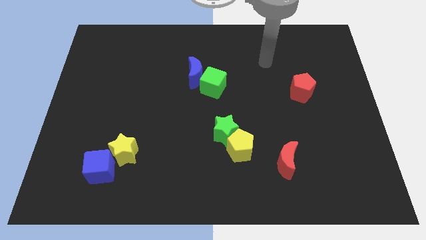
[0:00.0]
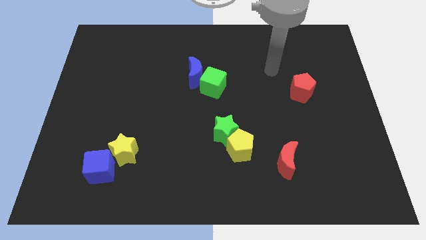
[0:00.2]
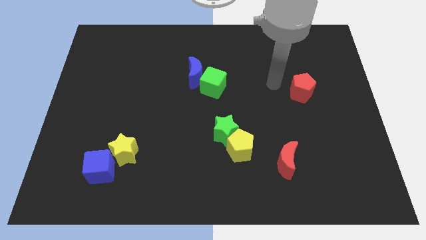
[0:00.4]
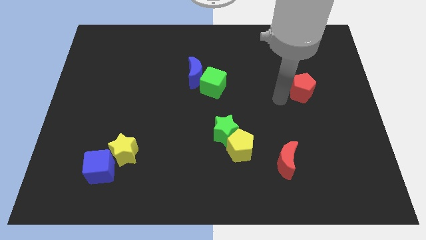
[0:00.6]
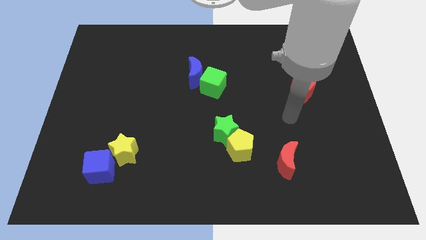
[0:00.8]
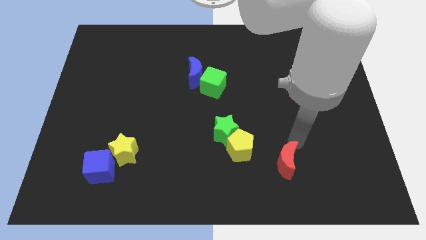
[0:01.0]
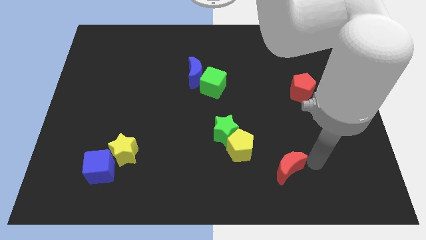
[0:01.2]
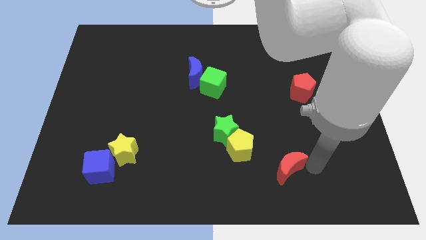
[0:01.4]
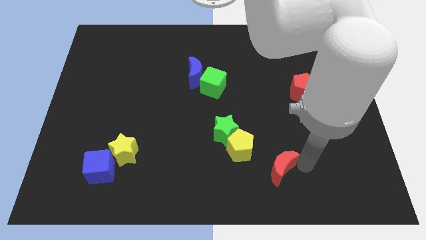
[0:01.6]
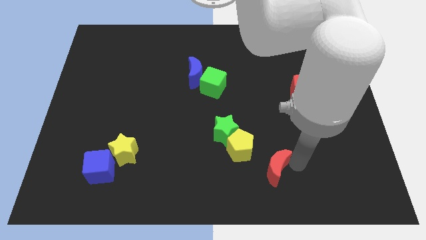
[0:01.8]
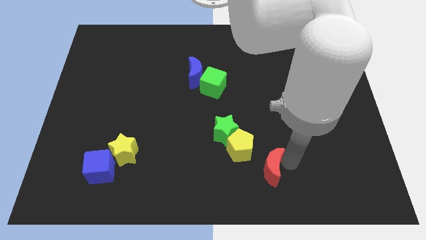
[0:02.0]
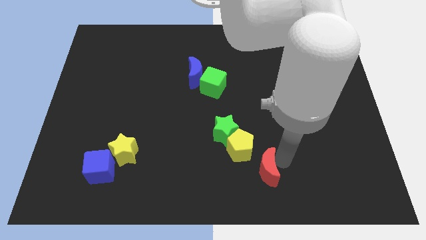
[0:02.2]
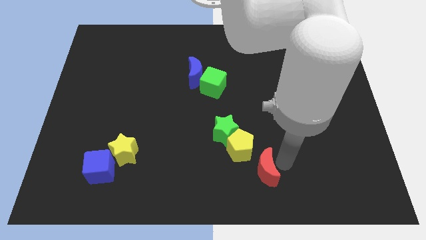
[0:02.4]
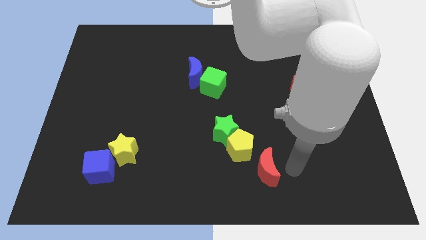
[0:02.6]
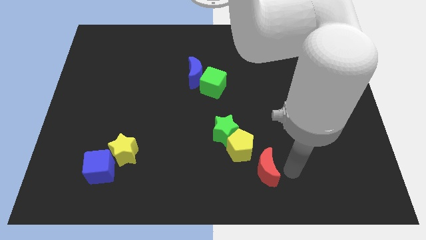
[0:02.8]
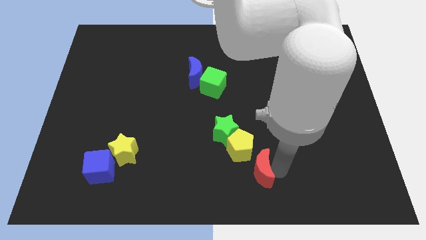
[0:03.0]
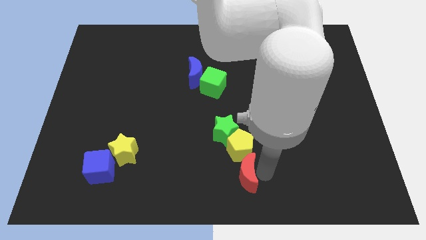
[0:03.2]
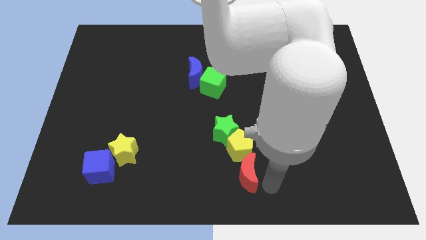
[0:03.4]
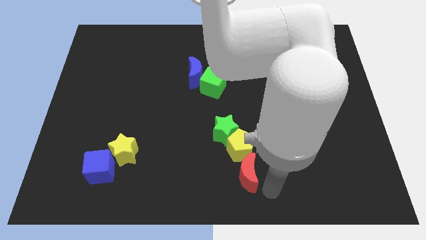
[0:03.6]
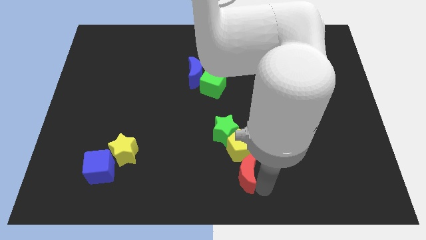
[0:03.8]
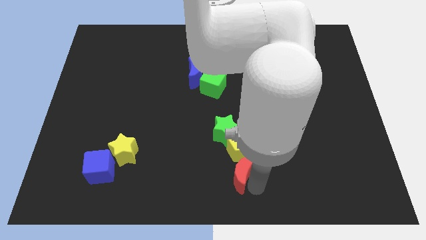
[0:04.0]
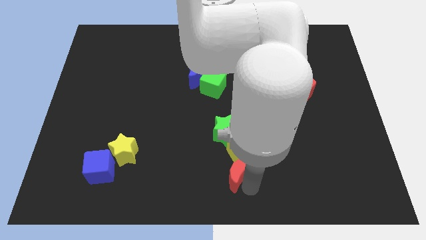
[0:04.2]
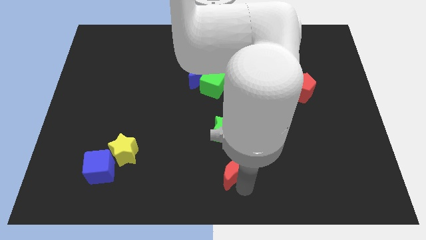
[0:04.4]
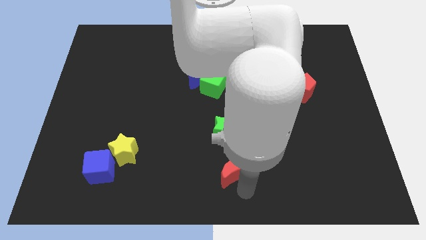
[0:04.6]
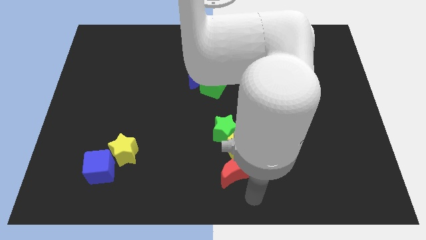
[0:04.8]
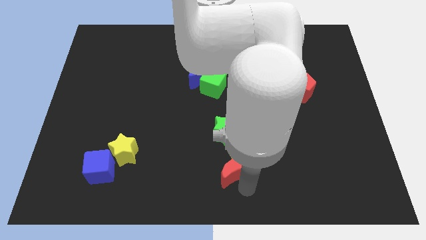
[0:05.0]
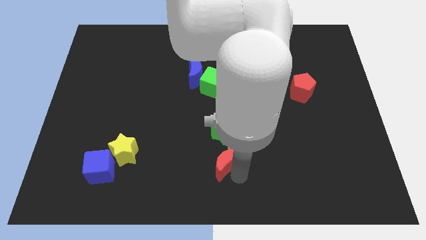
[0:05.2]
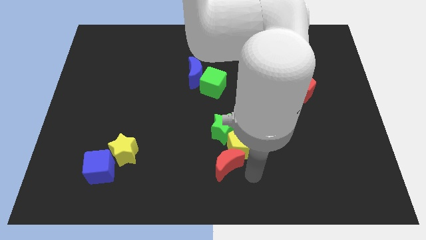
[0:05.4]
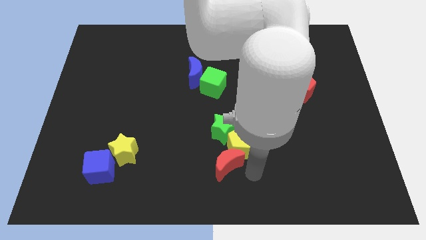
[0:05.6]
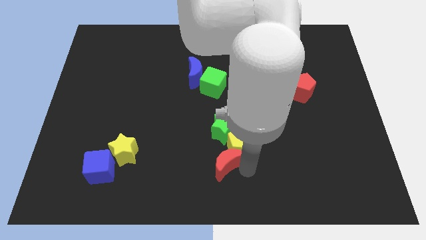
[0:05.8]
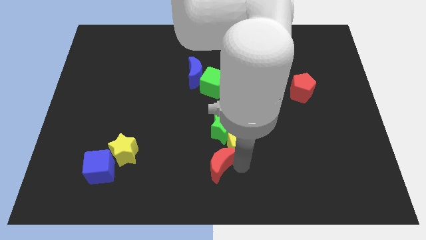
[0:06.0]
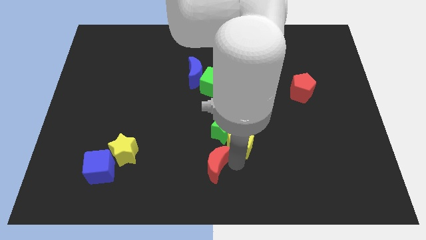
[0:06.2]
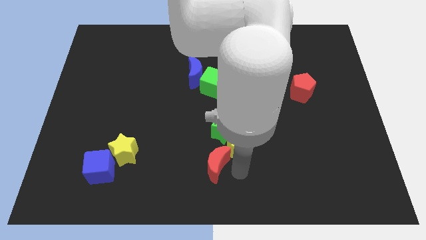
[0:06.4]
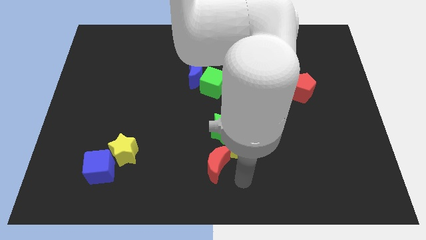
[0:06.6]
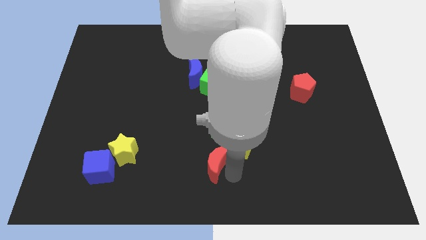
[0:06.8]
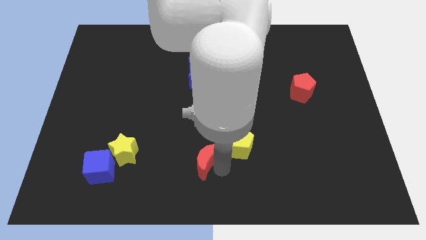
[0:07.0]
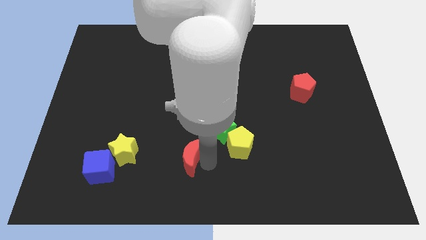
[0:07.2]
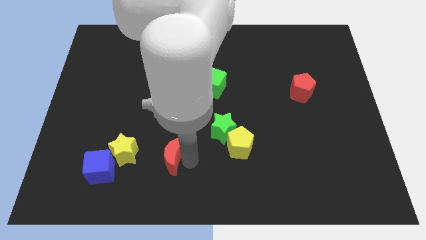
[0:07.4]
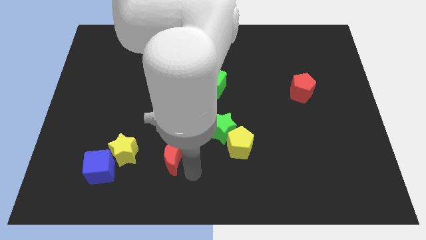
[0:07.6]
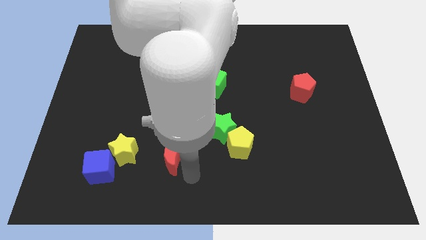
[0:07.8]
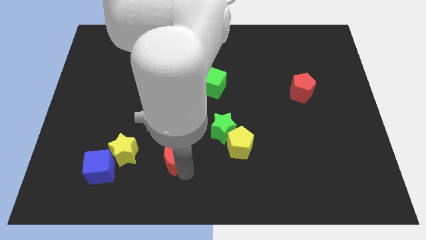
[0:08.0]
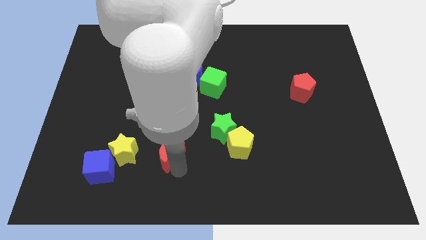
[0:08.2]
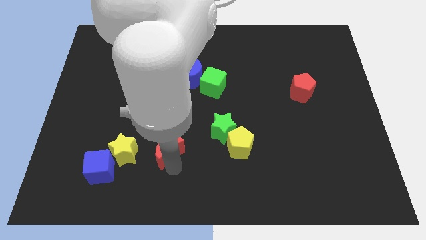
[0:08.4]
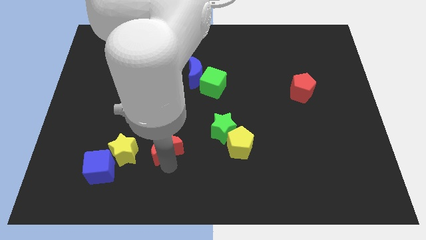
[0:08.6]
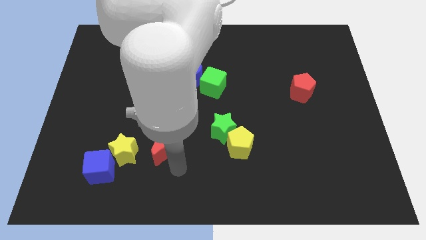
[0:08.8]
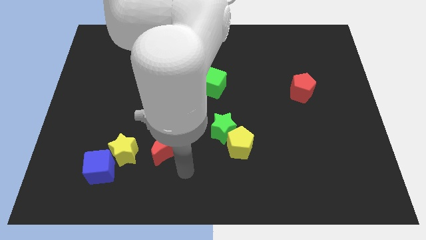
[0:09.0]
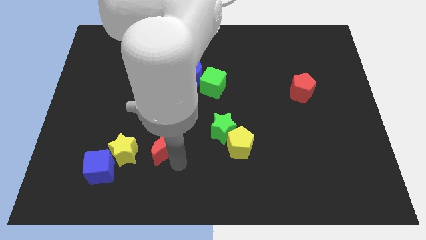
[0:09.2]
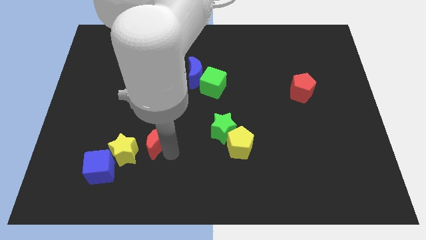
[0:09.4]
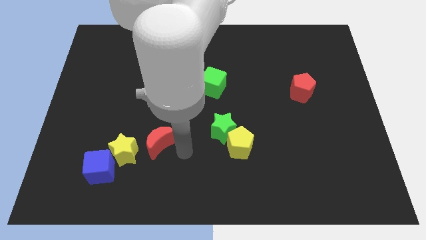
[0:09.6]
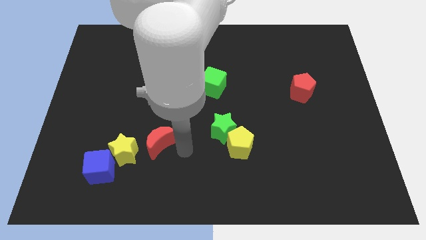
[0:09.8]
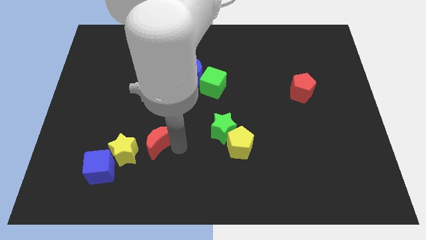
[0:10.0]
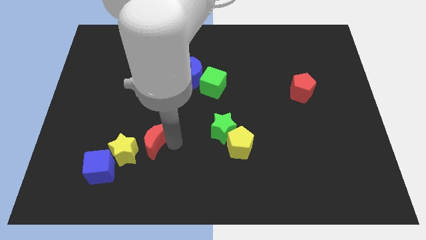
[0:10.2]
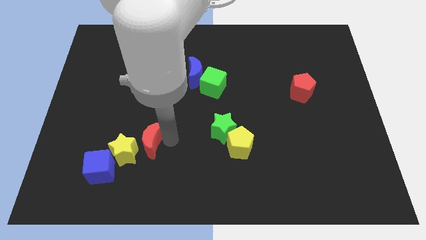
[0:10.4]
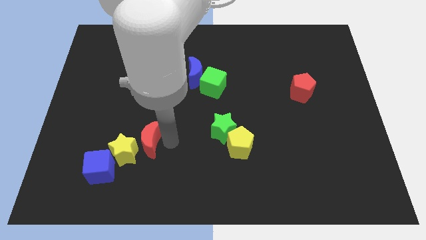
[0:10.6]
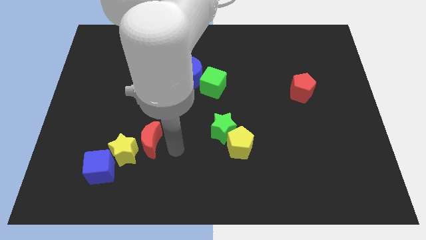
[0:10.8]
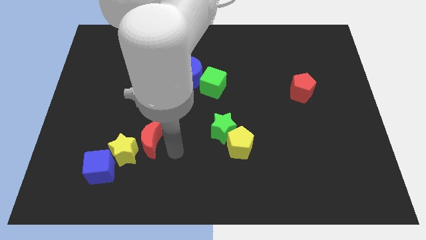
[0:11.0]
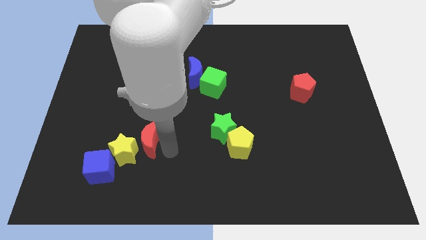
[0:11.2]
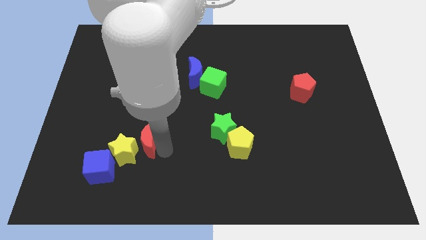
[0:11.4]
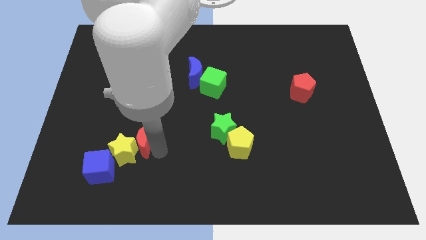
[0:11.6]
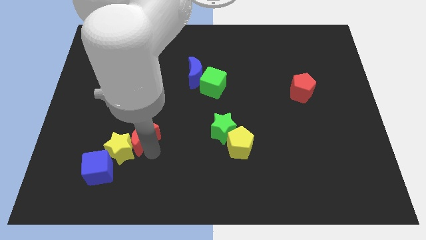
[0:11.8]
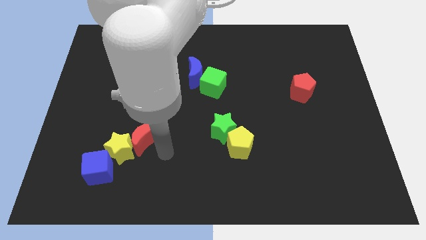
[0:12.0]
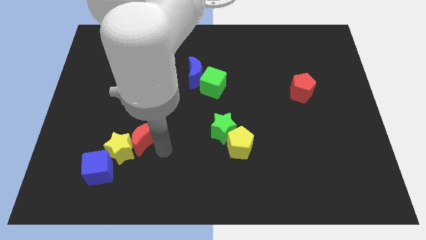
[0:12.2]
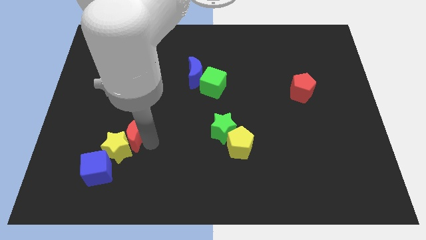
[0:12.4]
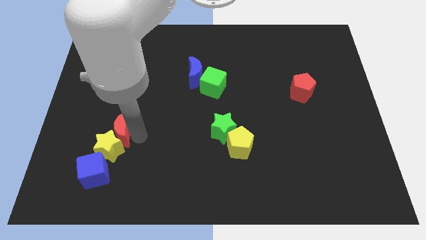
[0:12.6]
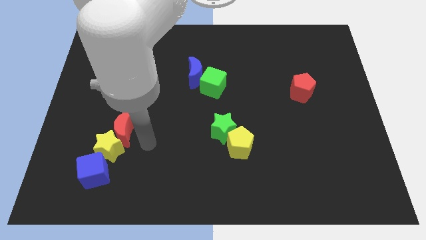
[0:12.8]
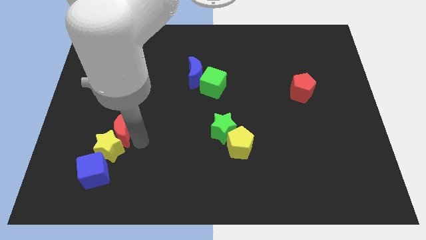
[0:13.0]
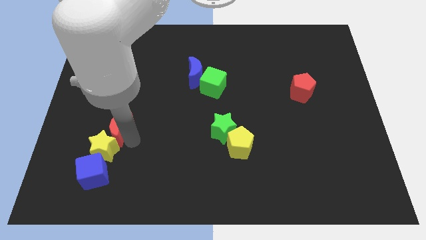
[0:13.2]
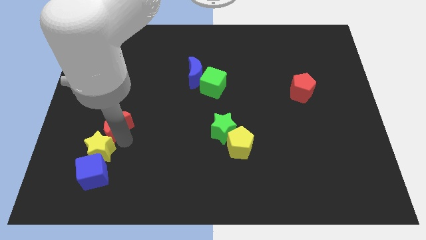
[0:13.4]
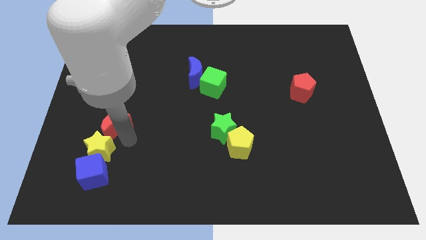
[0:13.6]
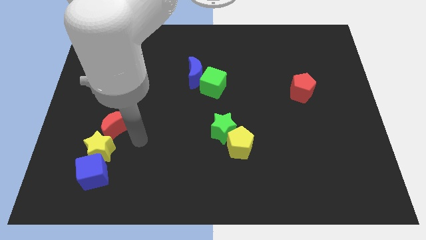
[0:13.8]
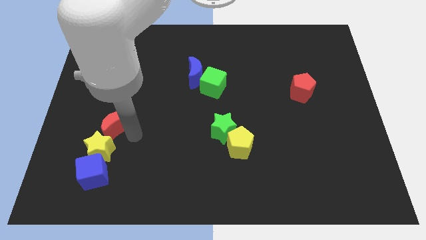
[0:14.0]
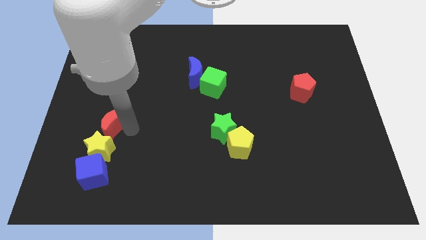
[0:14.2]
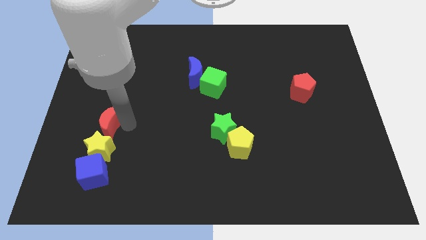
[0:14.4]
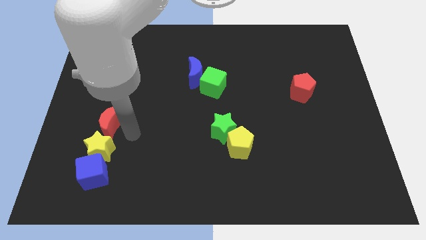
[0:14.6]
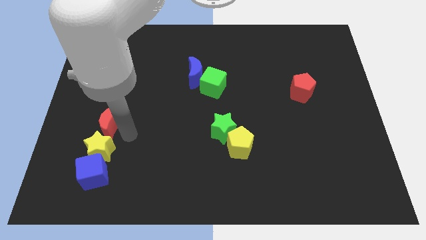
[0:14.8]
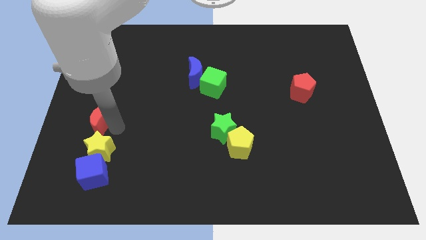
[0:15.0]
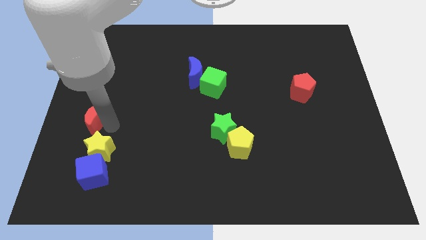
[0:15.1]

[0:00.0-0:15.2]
put the red moon to the left side
